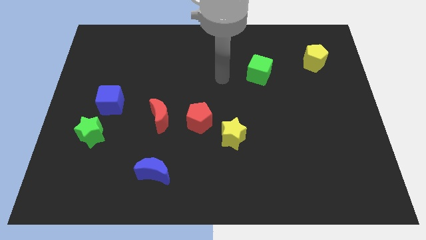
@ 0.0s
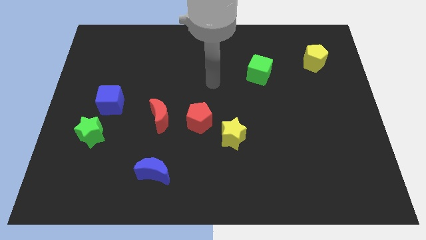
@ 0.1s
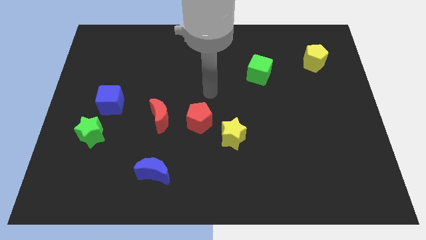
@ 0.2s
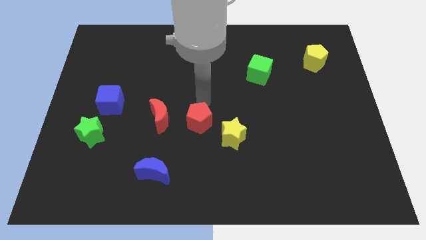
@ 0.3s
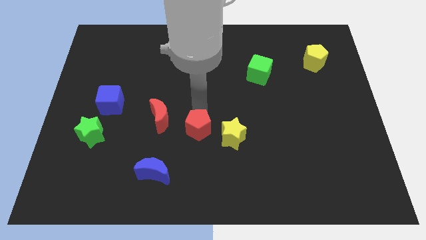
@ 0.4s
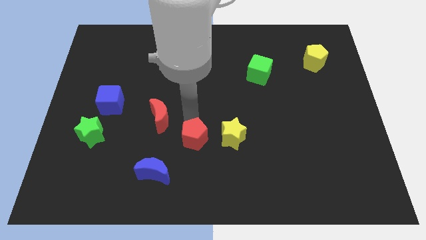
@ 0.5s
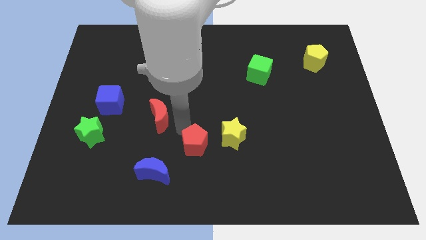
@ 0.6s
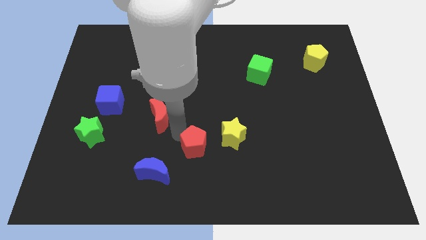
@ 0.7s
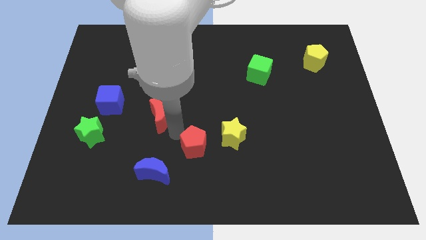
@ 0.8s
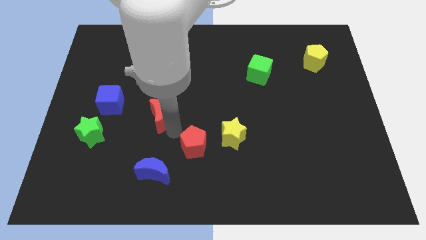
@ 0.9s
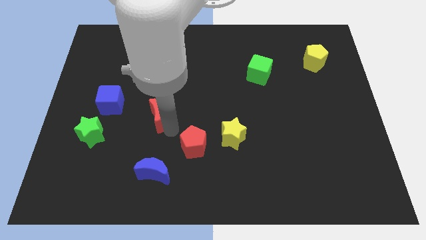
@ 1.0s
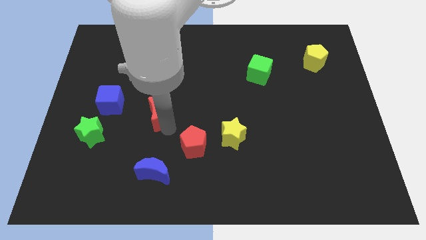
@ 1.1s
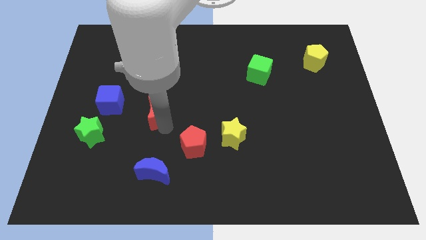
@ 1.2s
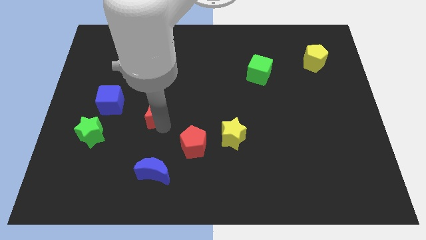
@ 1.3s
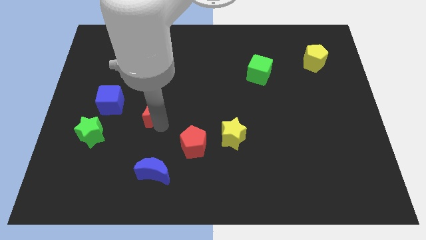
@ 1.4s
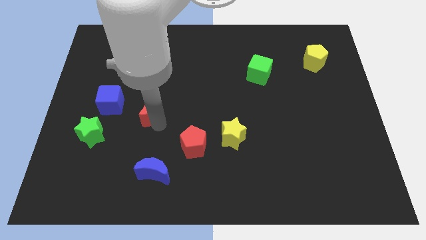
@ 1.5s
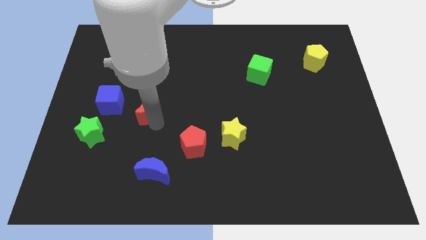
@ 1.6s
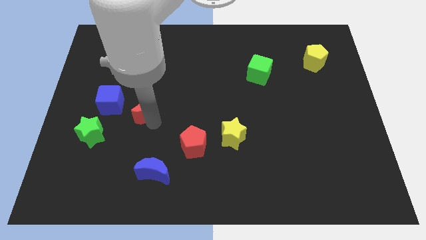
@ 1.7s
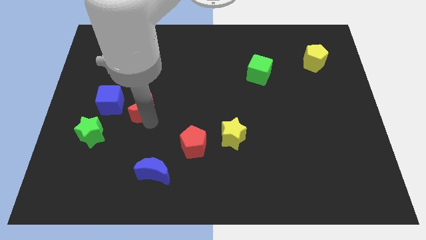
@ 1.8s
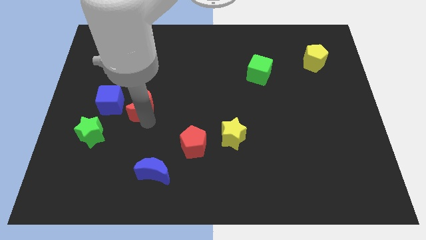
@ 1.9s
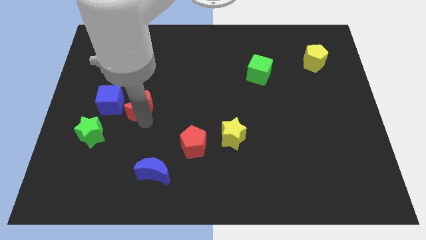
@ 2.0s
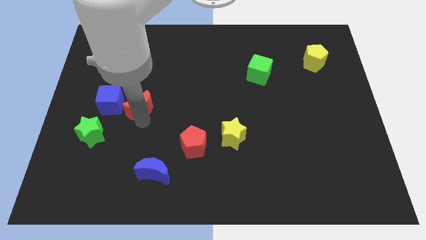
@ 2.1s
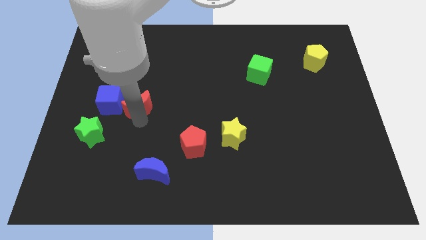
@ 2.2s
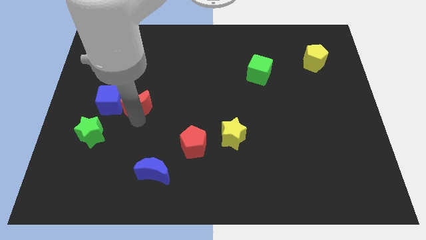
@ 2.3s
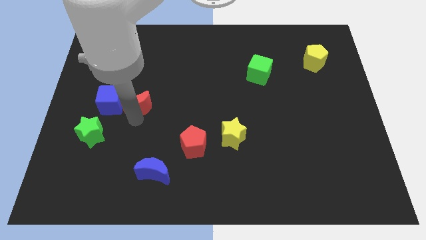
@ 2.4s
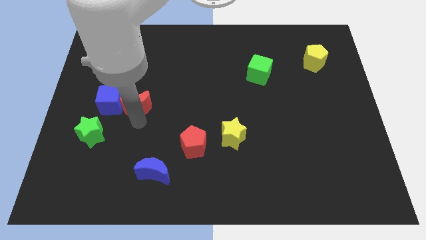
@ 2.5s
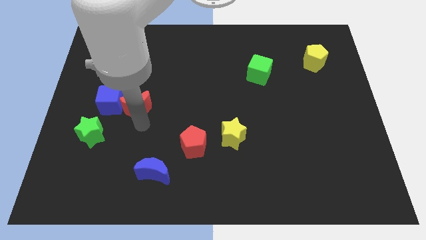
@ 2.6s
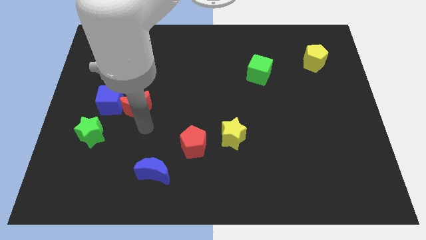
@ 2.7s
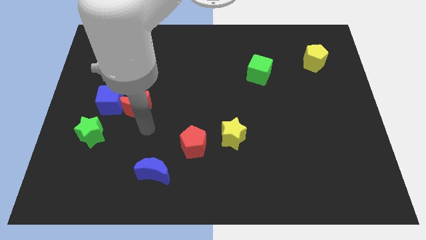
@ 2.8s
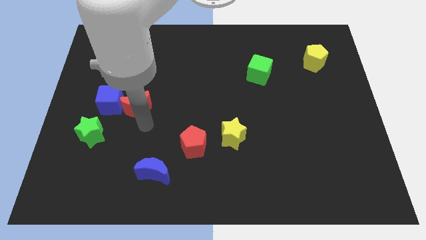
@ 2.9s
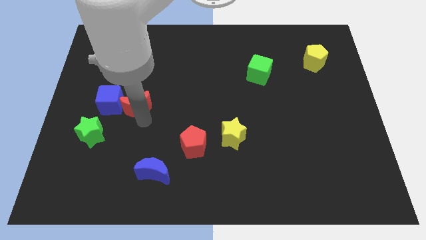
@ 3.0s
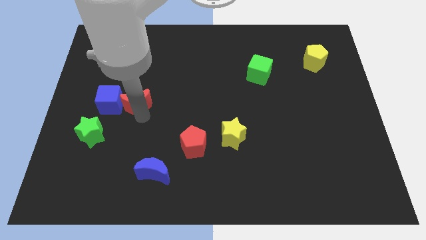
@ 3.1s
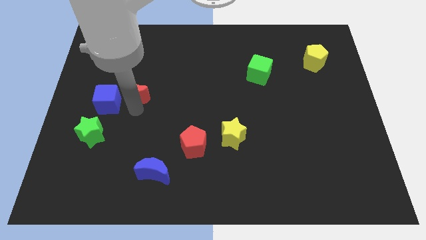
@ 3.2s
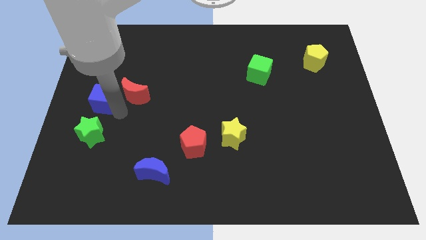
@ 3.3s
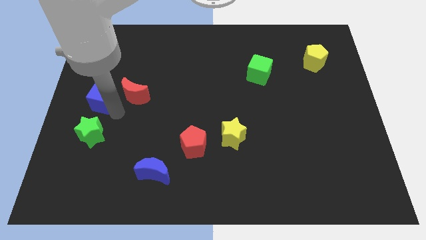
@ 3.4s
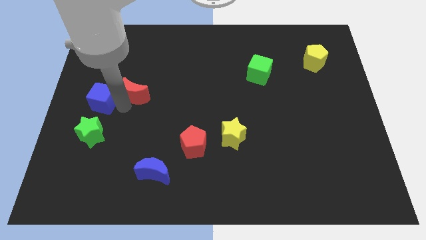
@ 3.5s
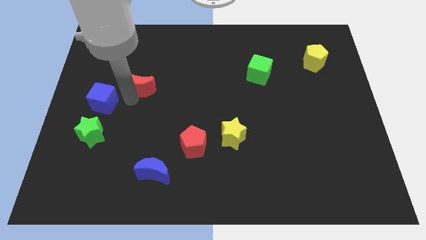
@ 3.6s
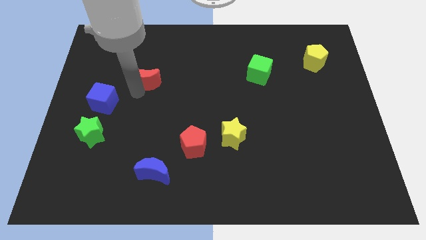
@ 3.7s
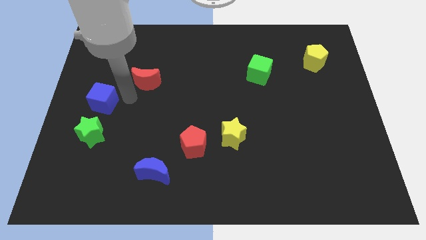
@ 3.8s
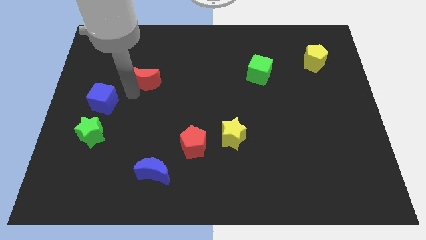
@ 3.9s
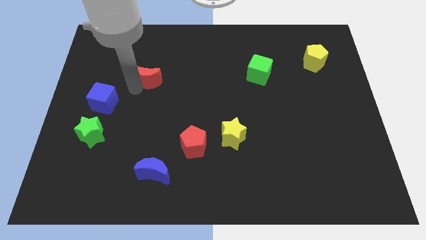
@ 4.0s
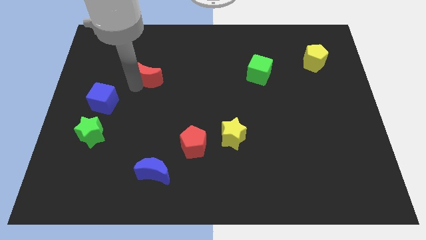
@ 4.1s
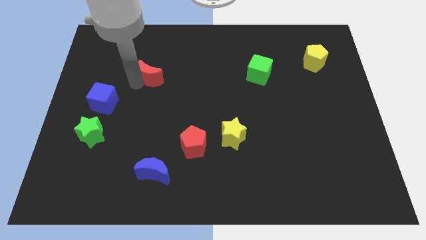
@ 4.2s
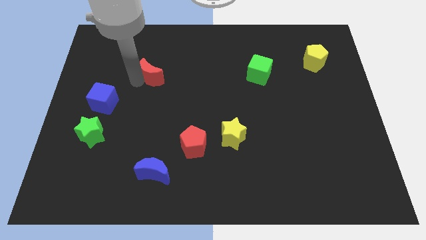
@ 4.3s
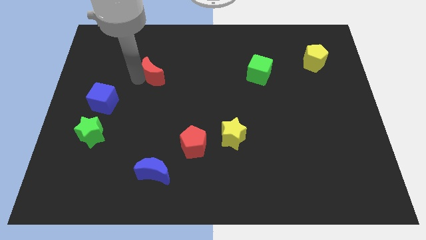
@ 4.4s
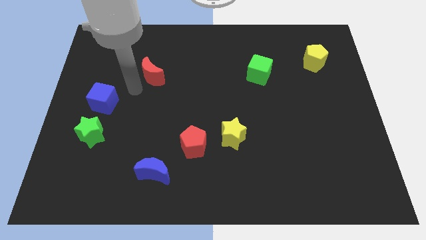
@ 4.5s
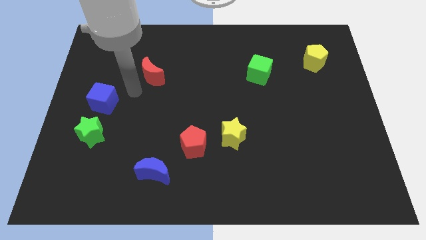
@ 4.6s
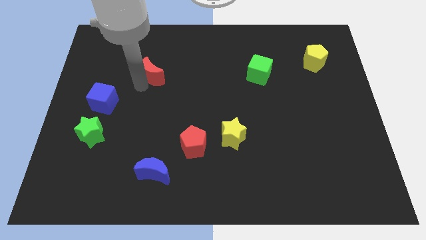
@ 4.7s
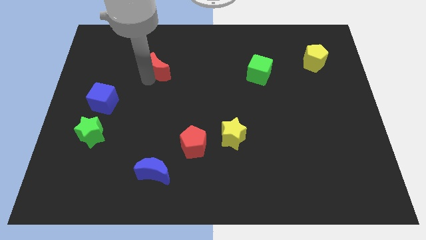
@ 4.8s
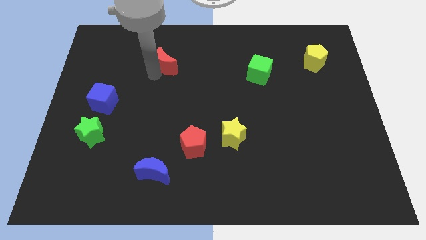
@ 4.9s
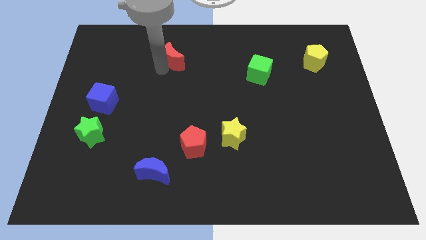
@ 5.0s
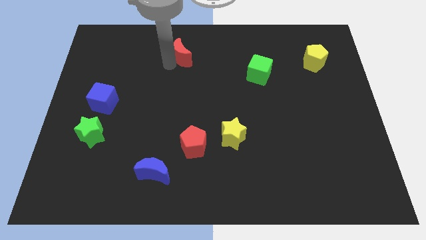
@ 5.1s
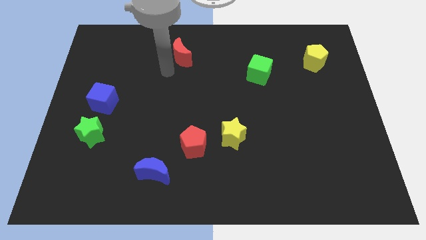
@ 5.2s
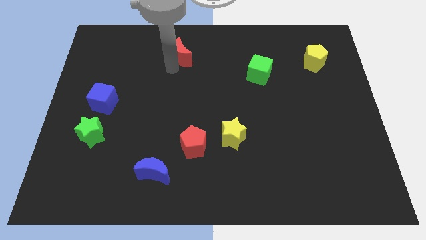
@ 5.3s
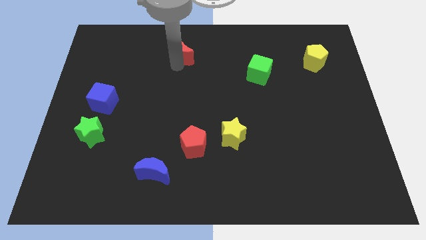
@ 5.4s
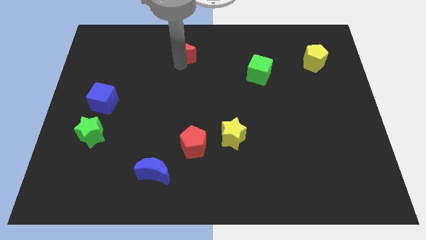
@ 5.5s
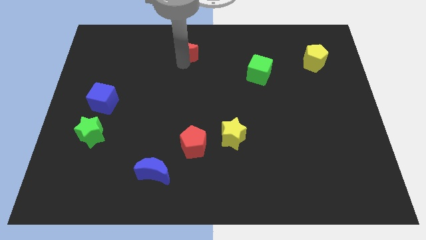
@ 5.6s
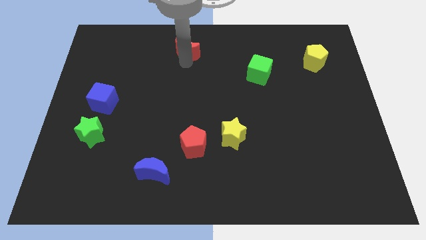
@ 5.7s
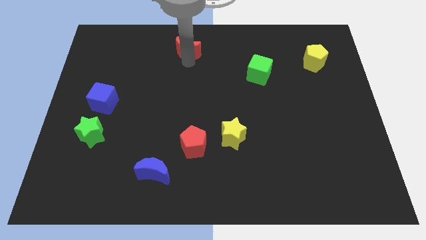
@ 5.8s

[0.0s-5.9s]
push the red moon to the top

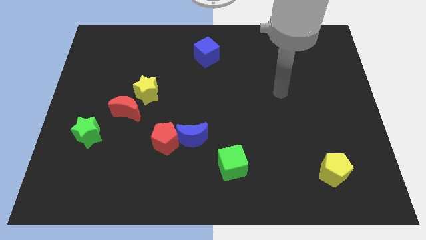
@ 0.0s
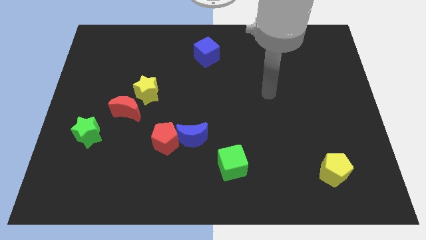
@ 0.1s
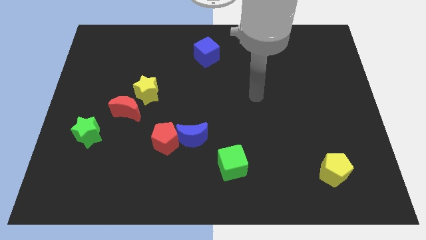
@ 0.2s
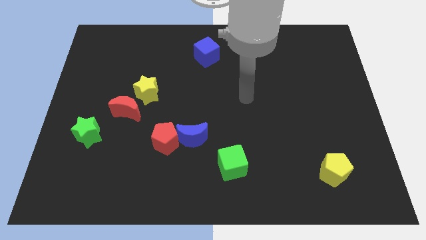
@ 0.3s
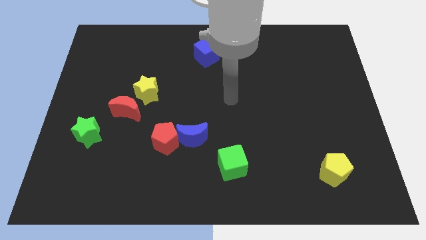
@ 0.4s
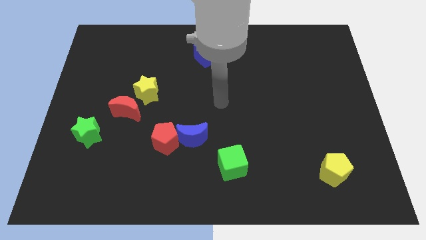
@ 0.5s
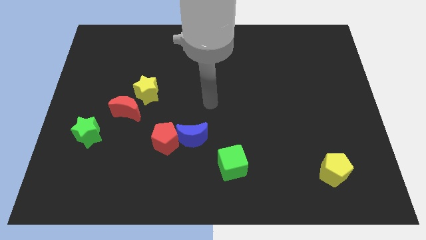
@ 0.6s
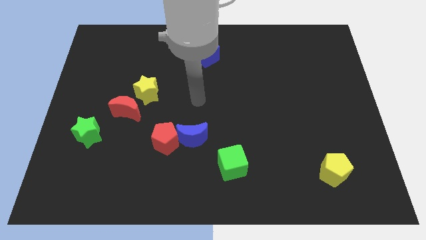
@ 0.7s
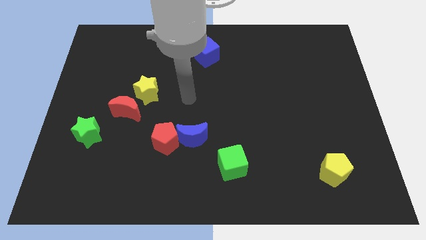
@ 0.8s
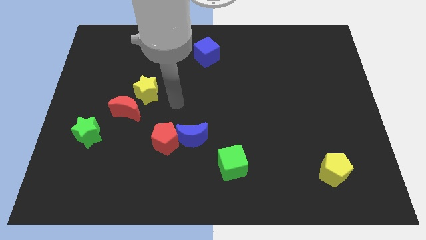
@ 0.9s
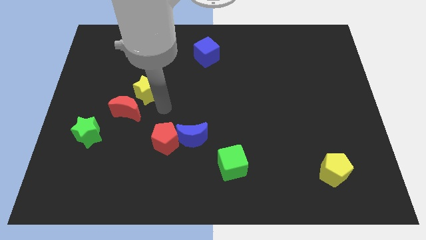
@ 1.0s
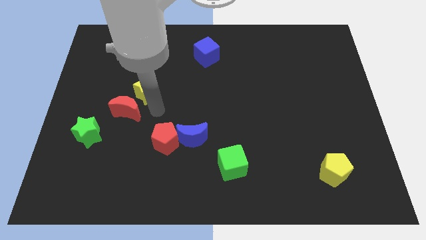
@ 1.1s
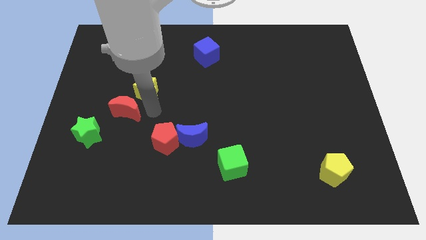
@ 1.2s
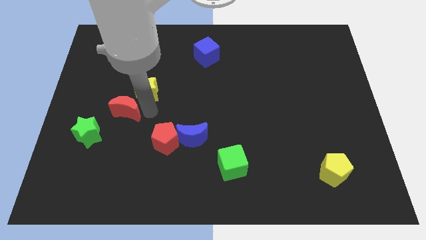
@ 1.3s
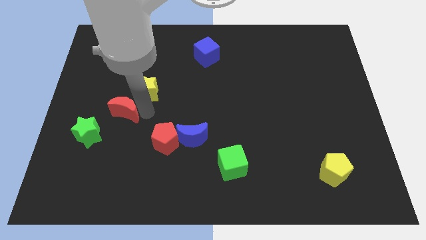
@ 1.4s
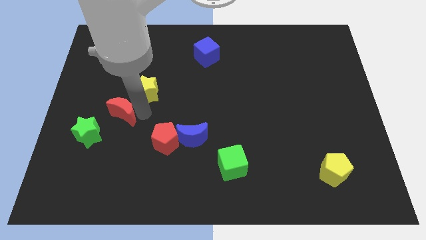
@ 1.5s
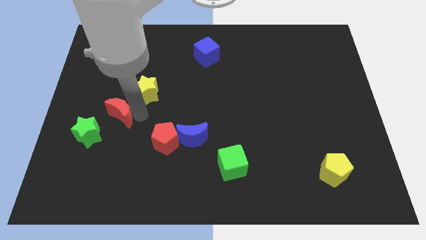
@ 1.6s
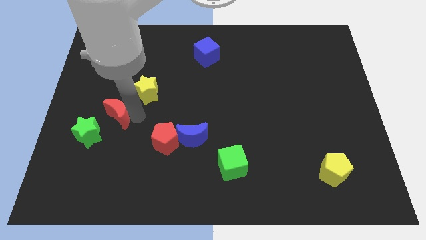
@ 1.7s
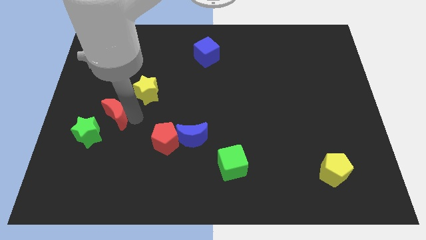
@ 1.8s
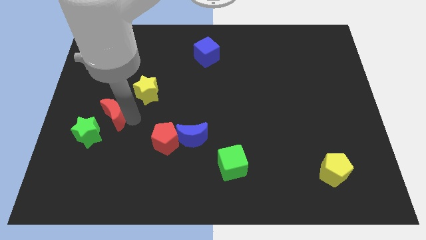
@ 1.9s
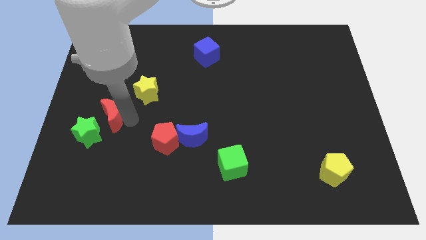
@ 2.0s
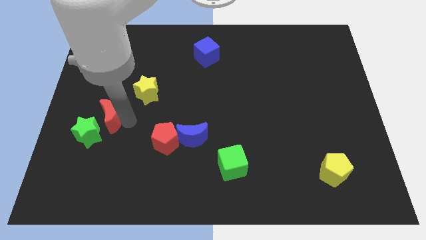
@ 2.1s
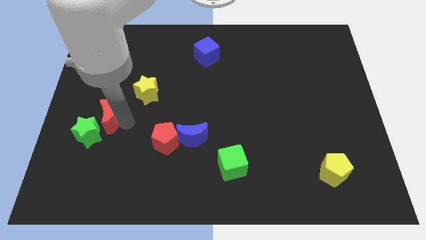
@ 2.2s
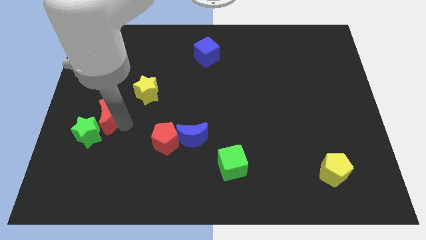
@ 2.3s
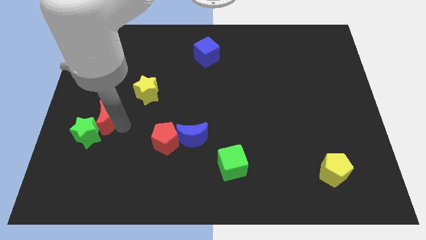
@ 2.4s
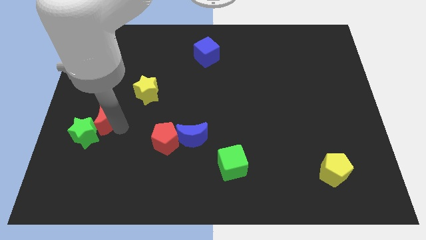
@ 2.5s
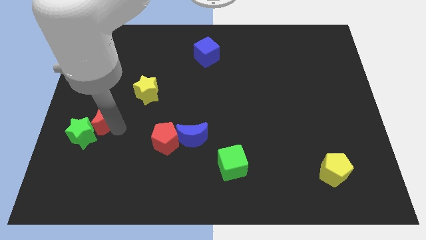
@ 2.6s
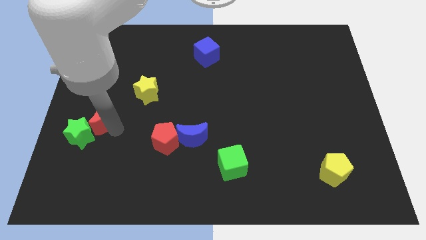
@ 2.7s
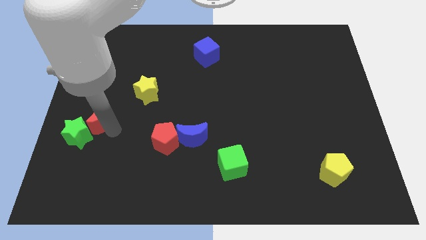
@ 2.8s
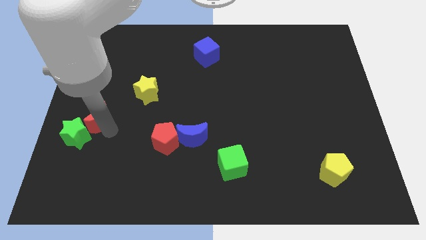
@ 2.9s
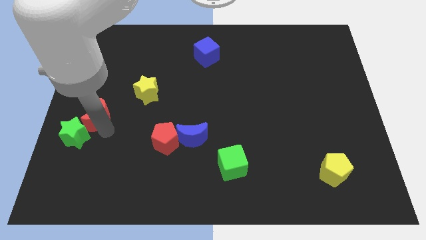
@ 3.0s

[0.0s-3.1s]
move the red moon to the center left
